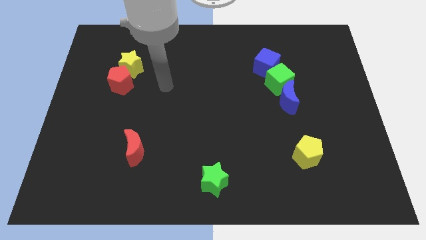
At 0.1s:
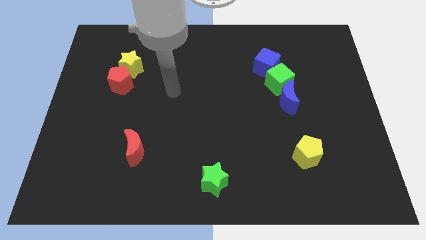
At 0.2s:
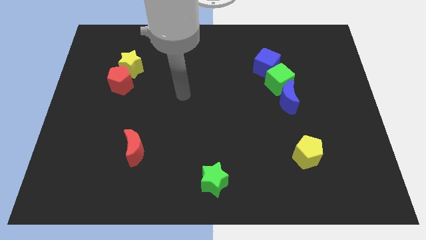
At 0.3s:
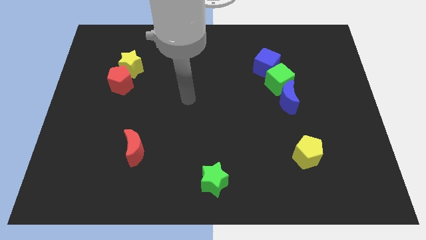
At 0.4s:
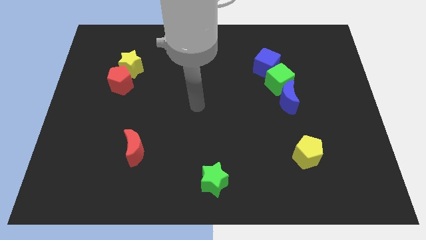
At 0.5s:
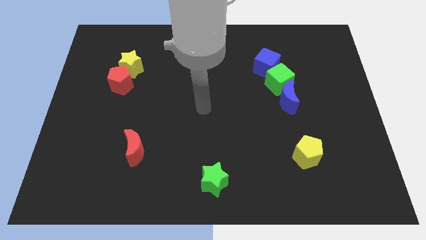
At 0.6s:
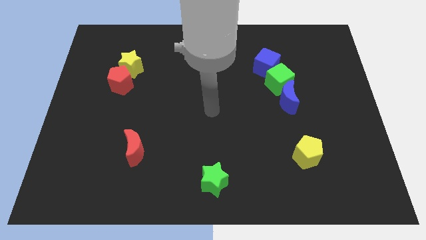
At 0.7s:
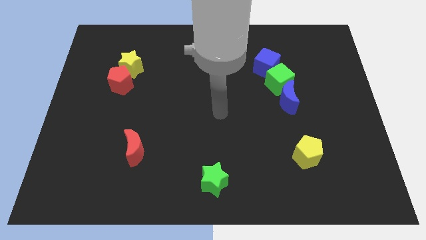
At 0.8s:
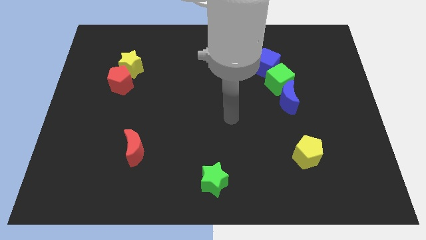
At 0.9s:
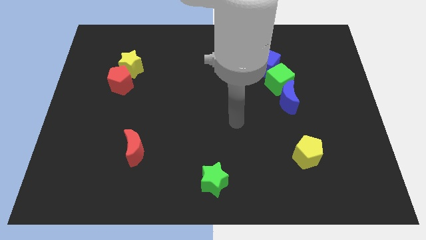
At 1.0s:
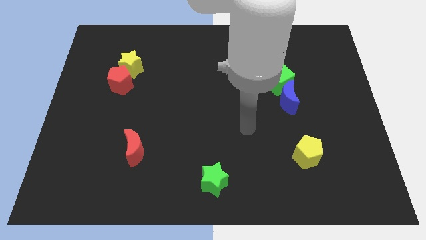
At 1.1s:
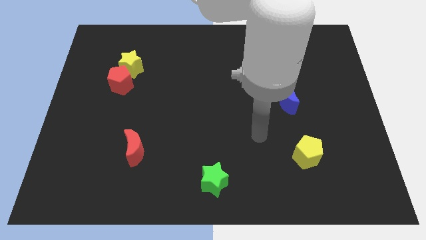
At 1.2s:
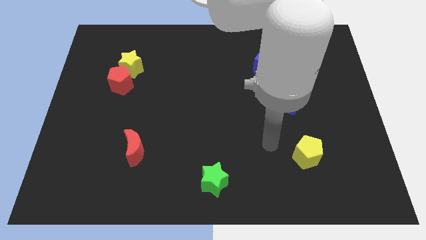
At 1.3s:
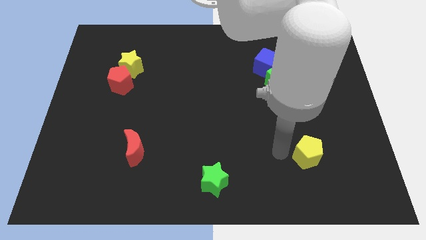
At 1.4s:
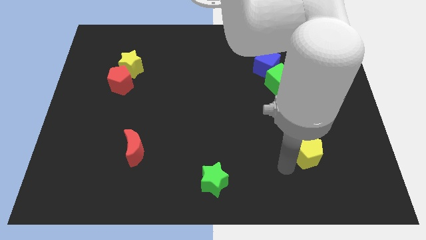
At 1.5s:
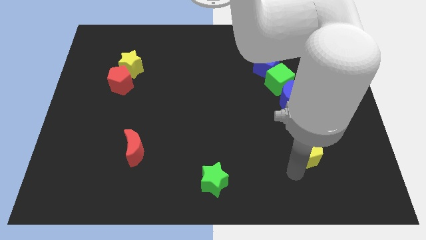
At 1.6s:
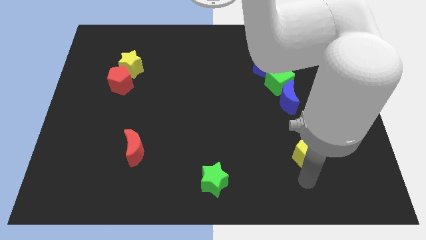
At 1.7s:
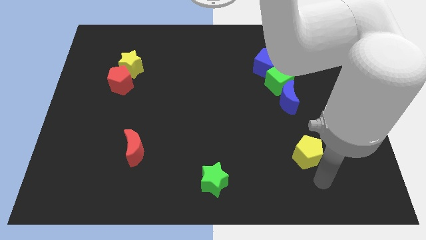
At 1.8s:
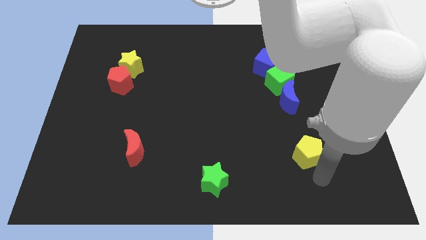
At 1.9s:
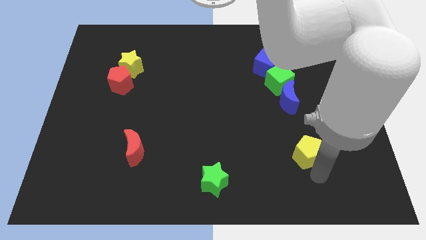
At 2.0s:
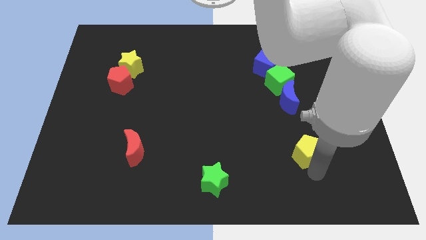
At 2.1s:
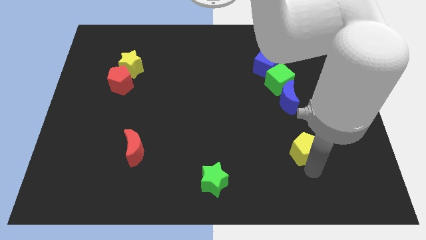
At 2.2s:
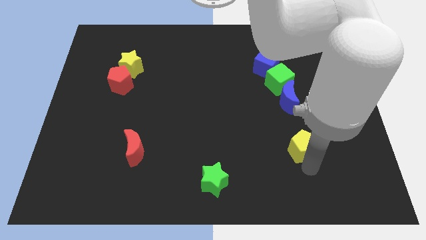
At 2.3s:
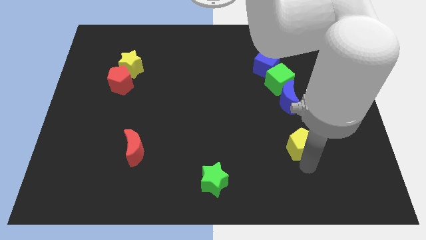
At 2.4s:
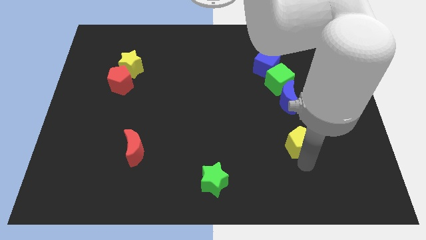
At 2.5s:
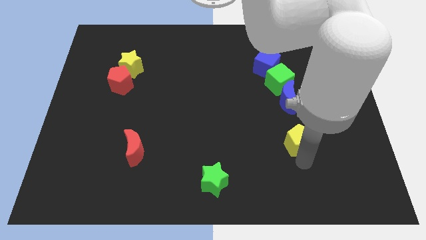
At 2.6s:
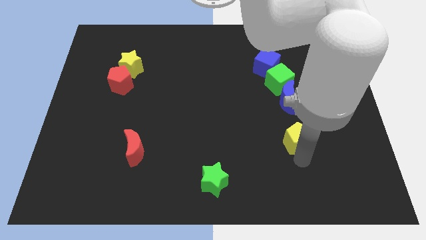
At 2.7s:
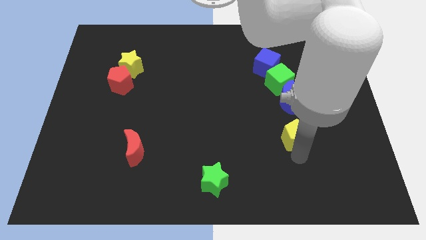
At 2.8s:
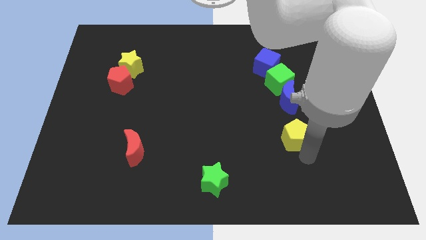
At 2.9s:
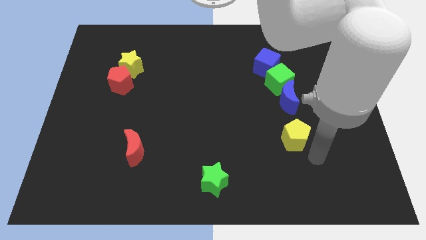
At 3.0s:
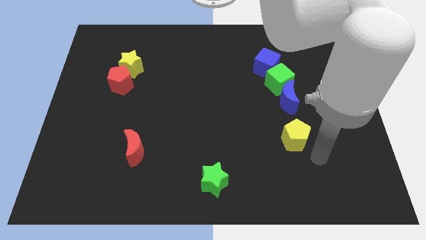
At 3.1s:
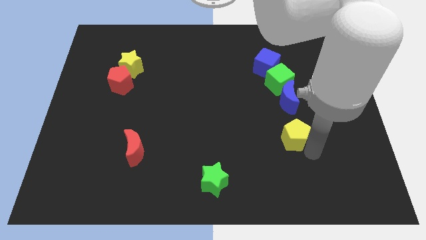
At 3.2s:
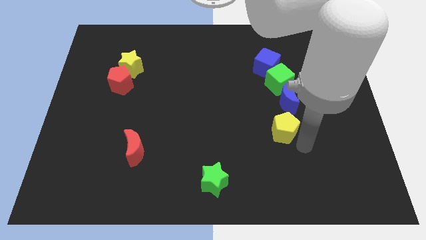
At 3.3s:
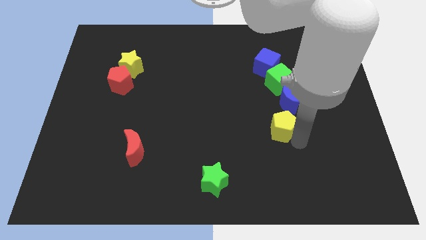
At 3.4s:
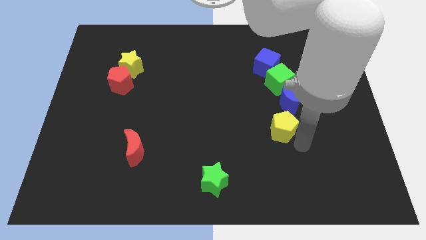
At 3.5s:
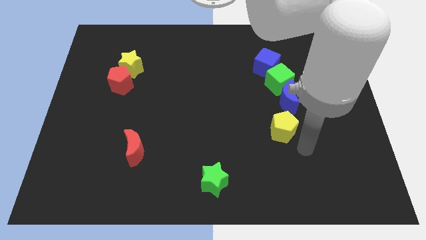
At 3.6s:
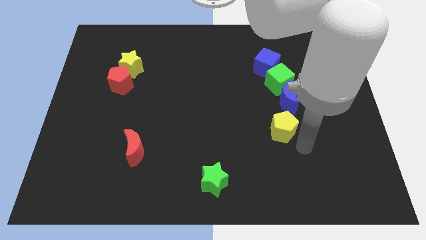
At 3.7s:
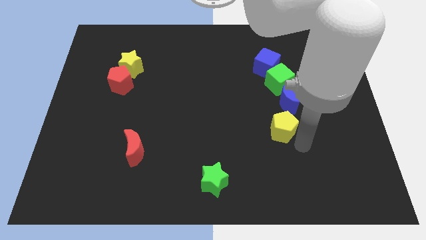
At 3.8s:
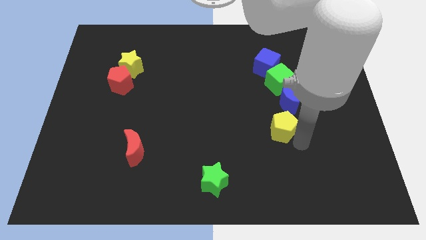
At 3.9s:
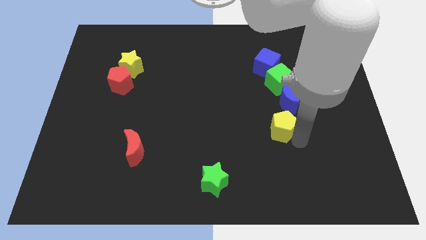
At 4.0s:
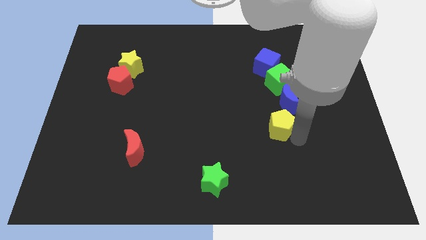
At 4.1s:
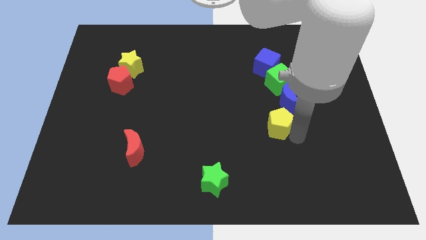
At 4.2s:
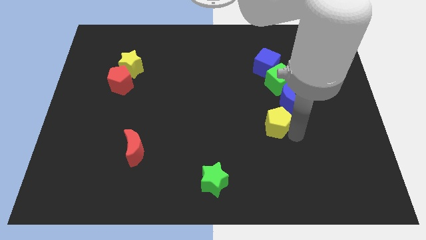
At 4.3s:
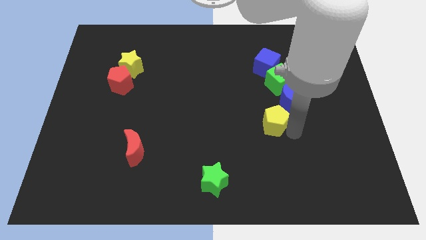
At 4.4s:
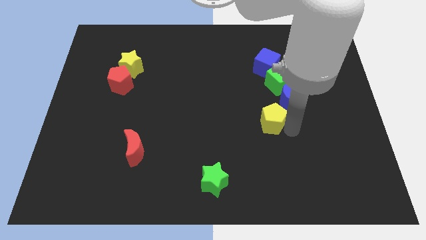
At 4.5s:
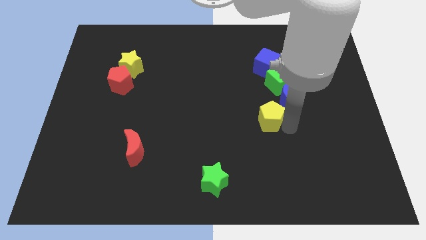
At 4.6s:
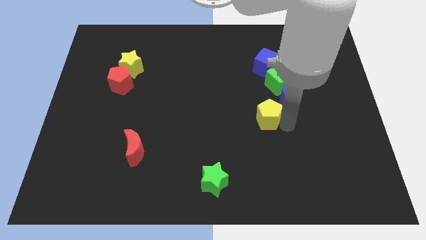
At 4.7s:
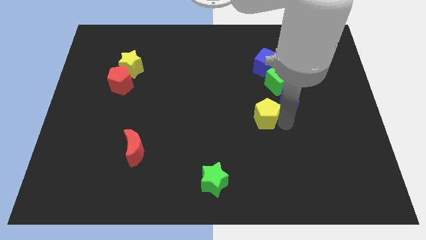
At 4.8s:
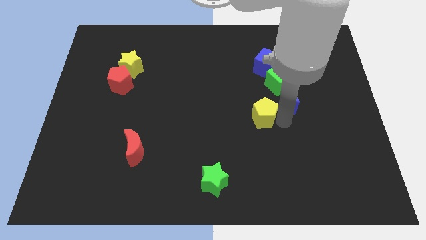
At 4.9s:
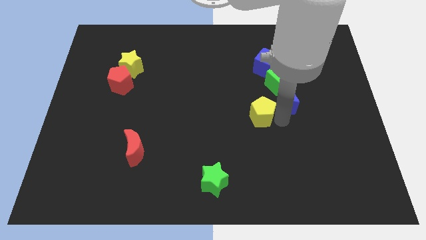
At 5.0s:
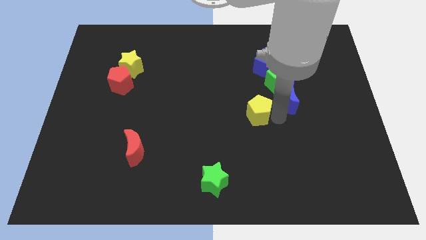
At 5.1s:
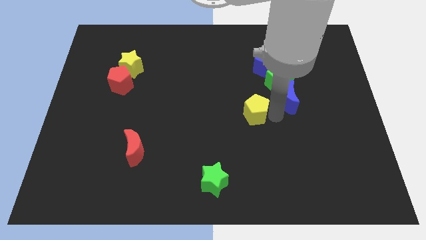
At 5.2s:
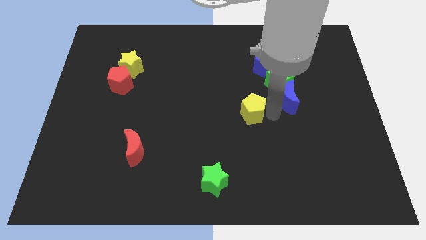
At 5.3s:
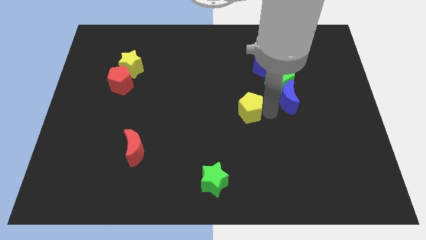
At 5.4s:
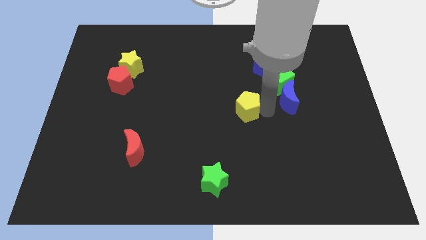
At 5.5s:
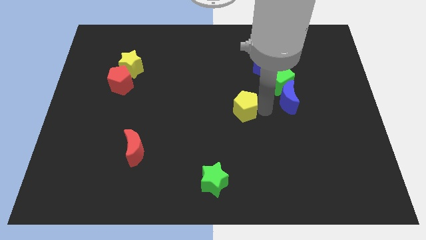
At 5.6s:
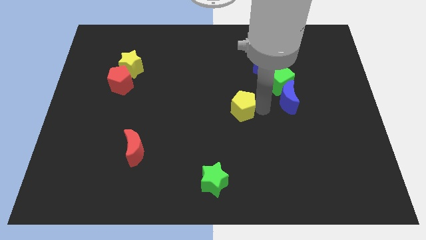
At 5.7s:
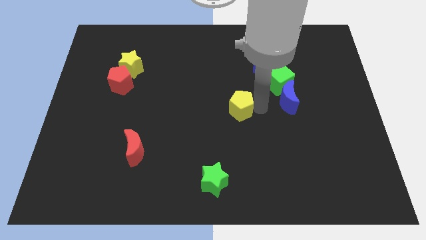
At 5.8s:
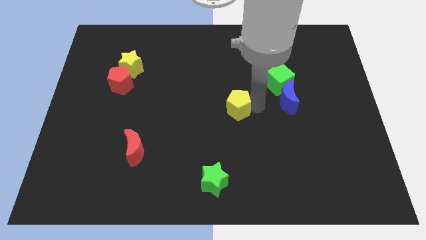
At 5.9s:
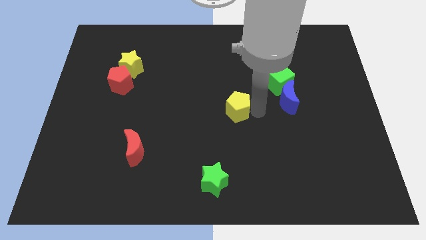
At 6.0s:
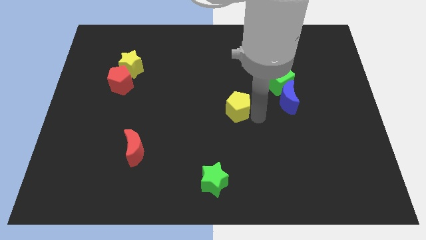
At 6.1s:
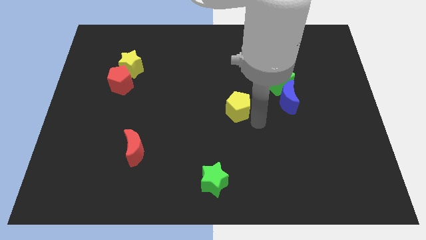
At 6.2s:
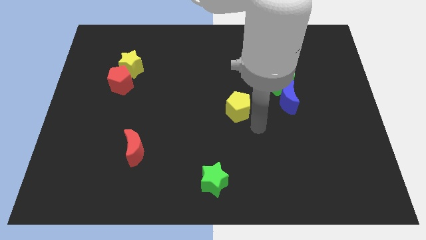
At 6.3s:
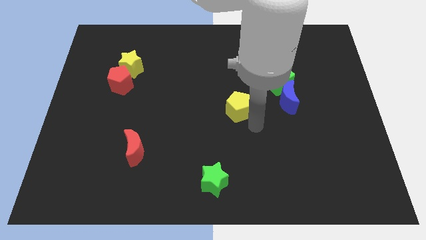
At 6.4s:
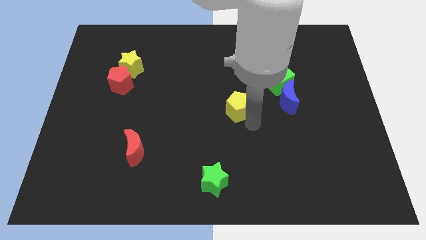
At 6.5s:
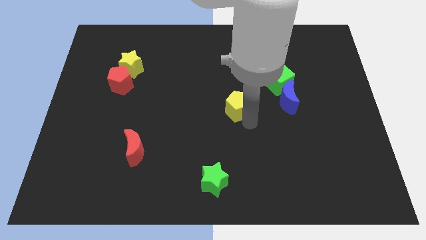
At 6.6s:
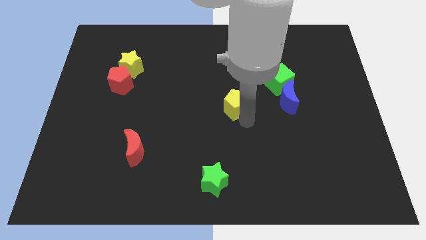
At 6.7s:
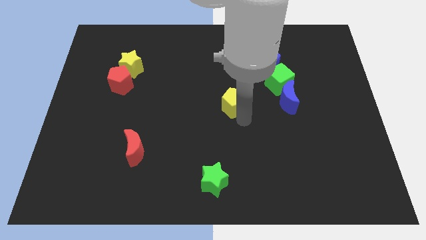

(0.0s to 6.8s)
move the yellow pentagon diagonally up and to the left

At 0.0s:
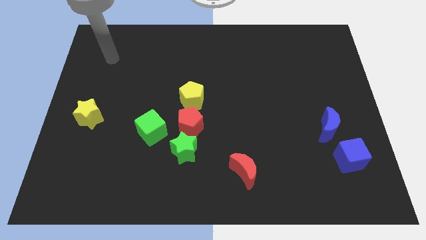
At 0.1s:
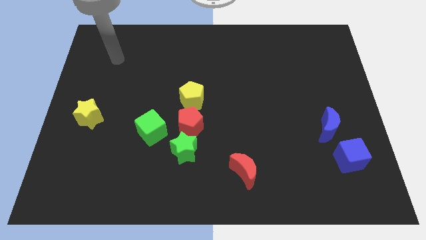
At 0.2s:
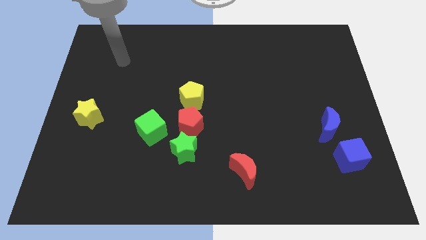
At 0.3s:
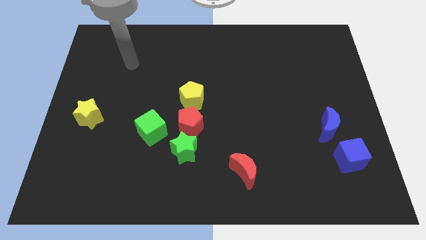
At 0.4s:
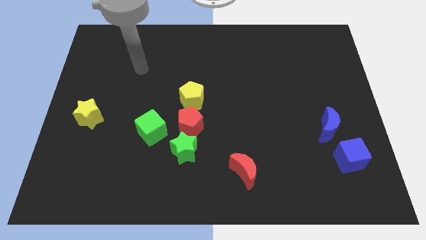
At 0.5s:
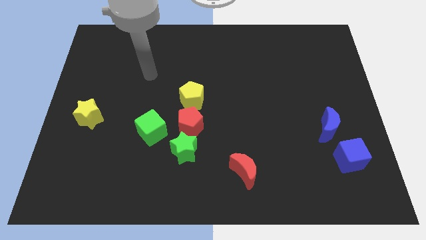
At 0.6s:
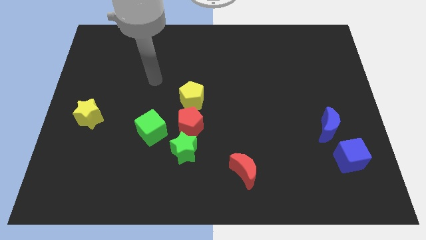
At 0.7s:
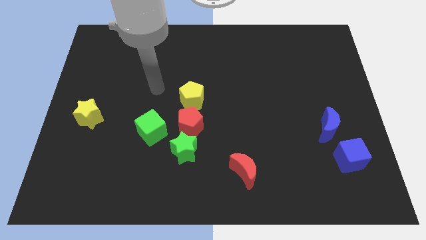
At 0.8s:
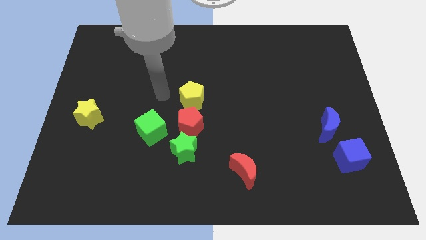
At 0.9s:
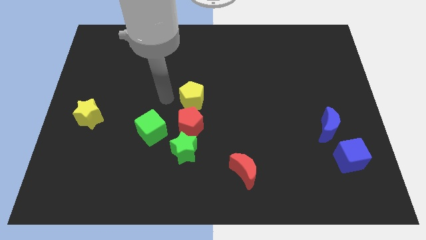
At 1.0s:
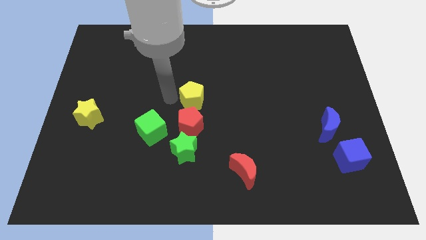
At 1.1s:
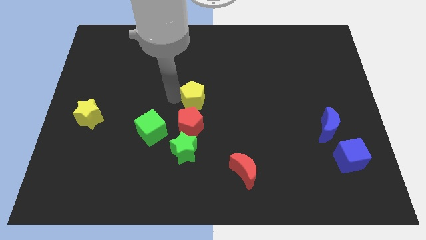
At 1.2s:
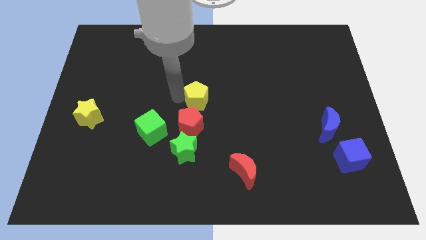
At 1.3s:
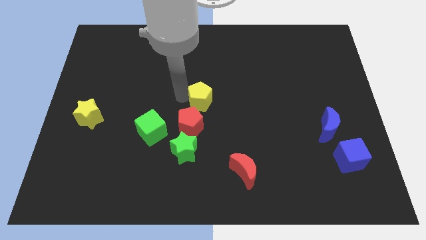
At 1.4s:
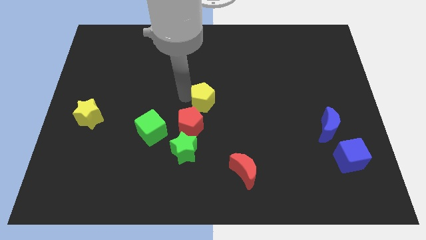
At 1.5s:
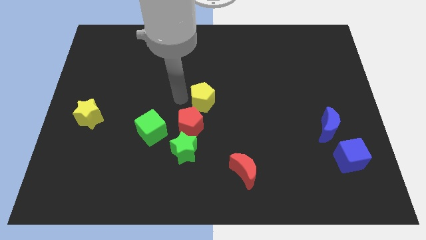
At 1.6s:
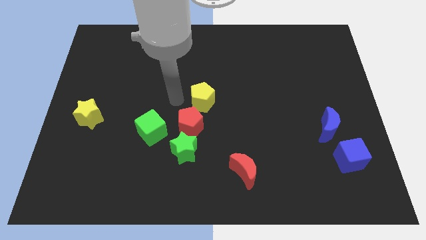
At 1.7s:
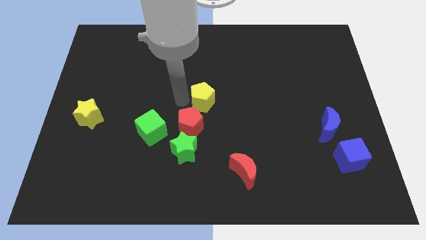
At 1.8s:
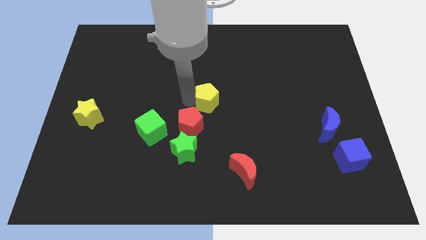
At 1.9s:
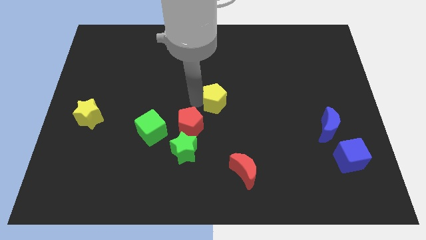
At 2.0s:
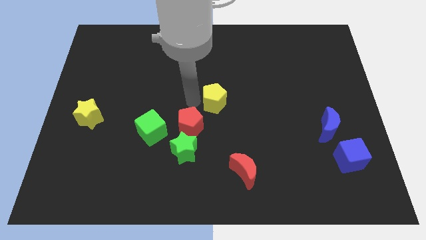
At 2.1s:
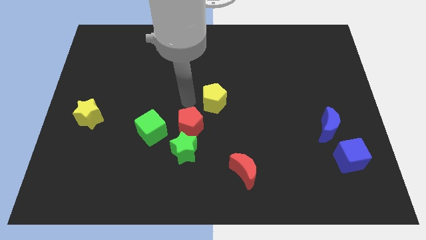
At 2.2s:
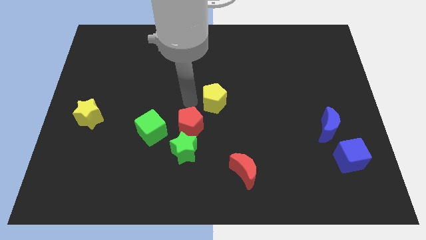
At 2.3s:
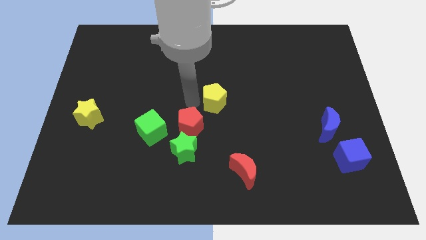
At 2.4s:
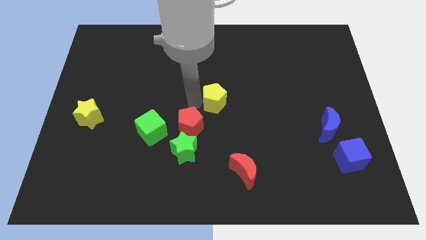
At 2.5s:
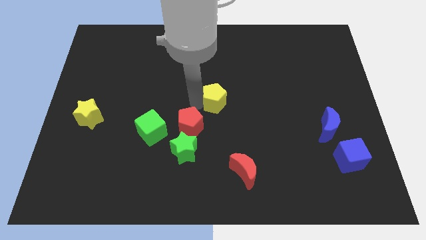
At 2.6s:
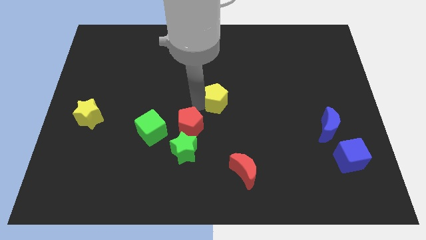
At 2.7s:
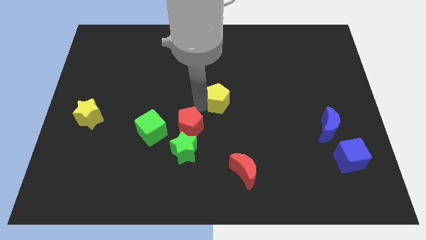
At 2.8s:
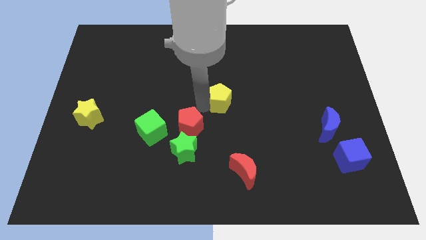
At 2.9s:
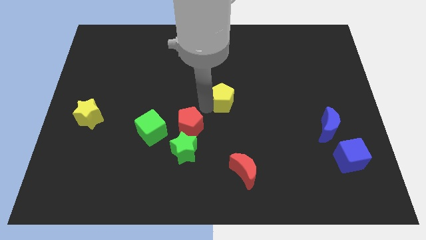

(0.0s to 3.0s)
slightly push the yellow pentagon right
